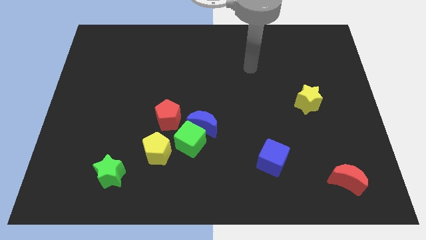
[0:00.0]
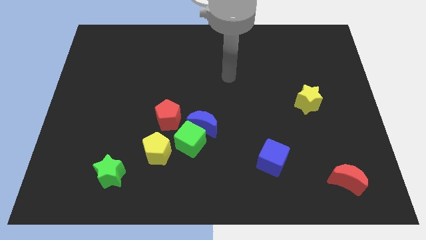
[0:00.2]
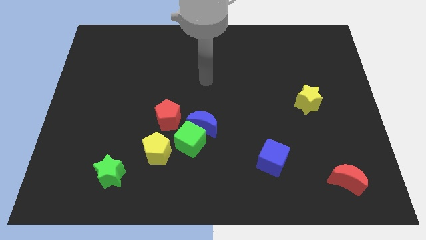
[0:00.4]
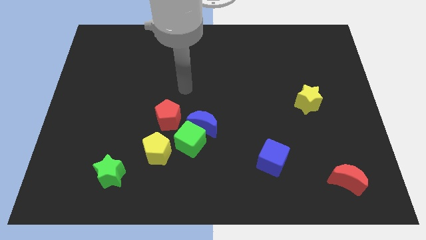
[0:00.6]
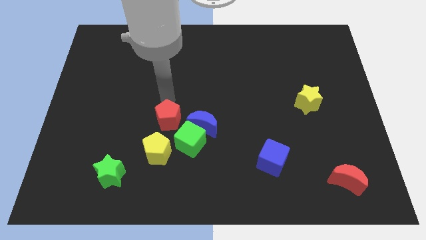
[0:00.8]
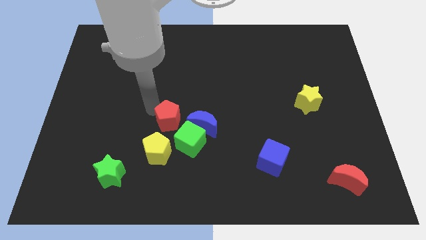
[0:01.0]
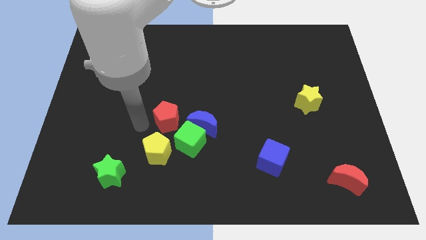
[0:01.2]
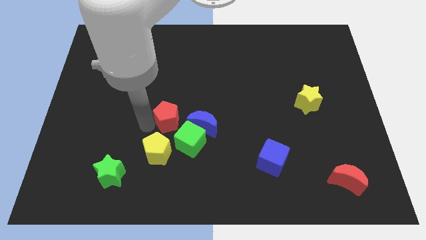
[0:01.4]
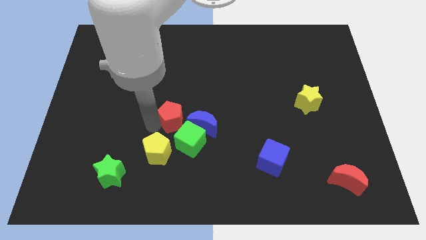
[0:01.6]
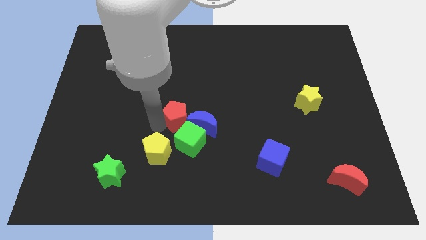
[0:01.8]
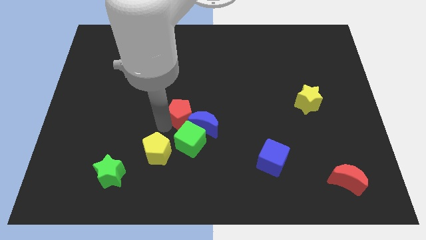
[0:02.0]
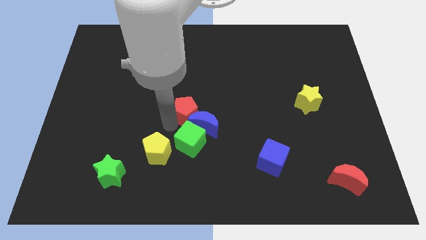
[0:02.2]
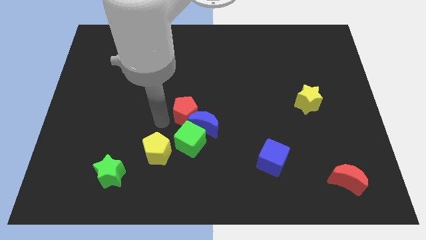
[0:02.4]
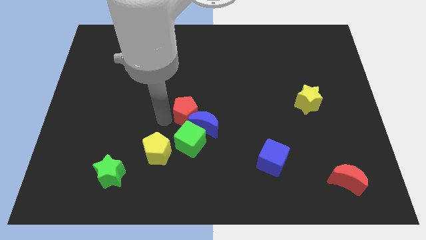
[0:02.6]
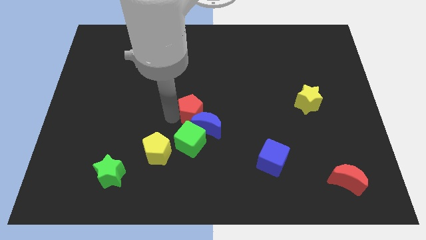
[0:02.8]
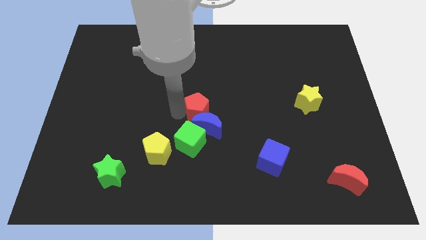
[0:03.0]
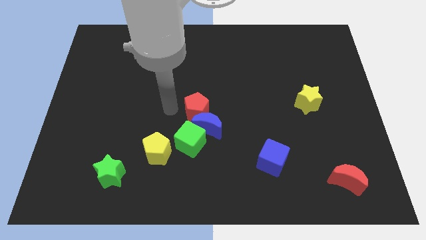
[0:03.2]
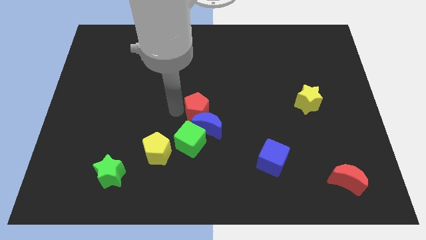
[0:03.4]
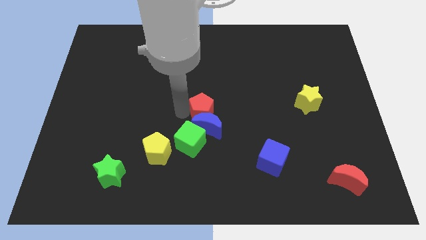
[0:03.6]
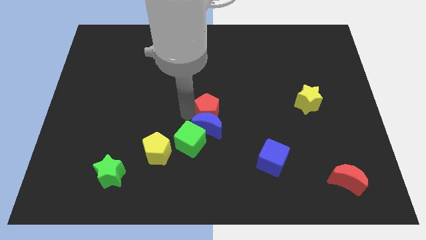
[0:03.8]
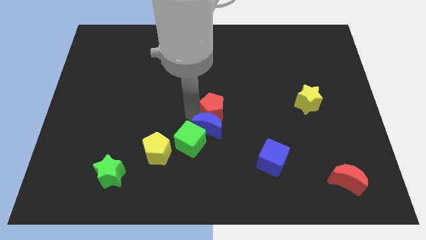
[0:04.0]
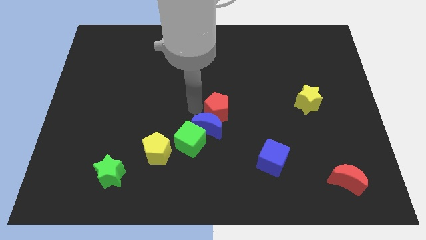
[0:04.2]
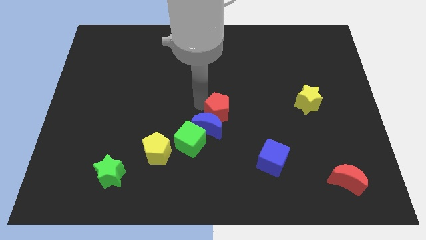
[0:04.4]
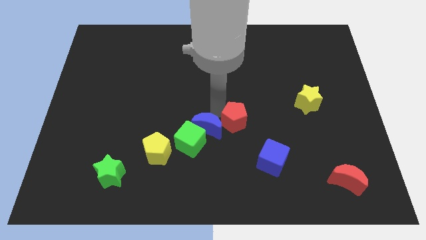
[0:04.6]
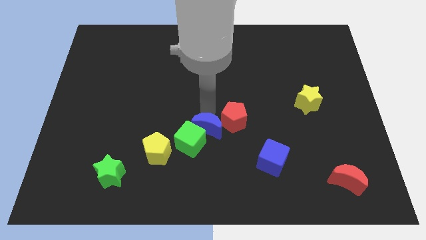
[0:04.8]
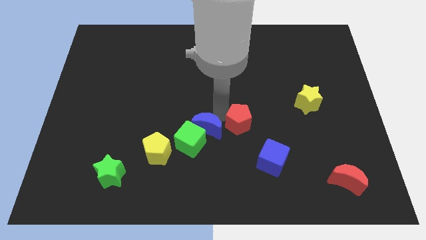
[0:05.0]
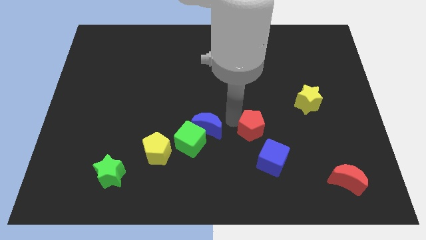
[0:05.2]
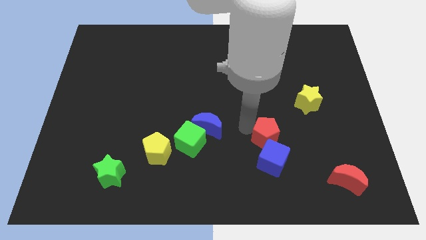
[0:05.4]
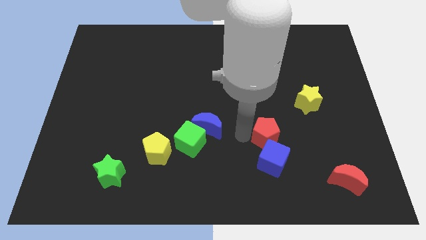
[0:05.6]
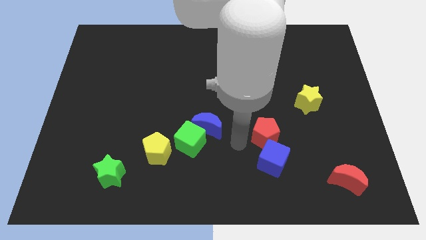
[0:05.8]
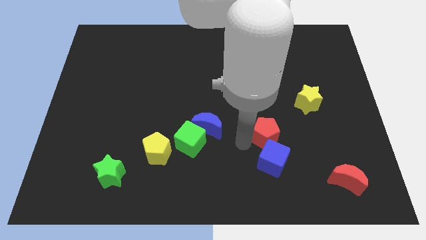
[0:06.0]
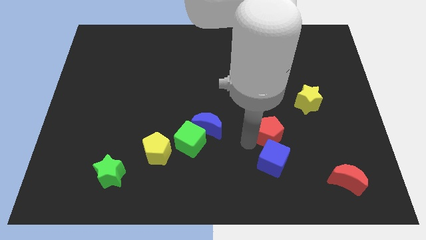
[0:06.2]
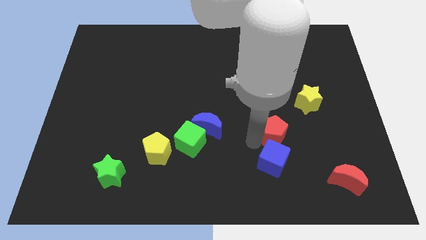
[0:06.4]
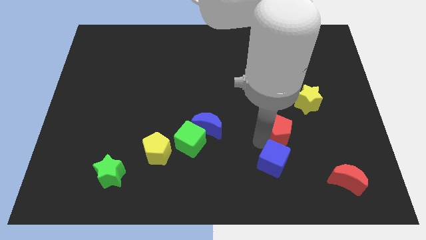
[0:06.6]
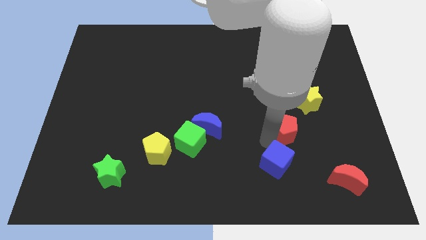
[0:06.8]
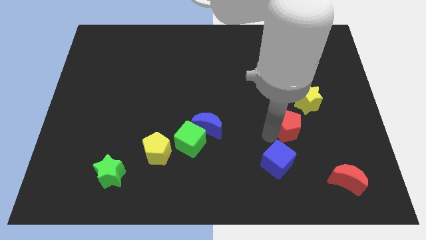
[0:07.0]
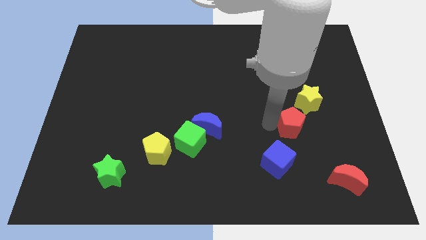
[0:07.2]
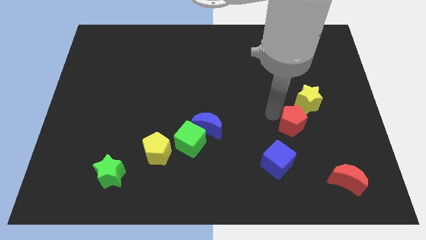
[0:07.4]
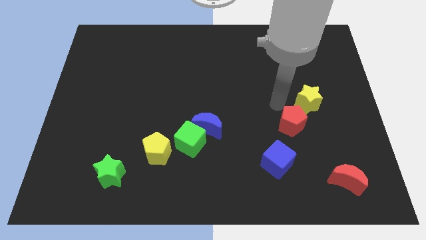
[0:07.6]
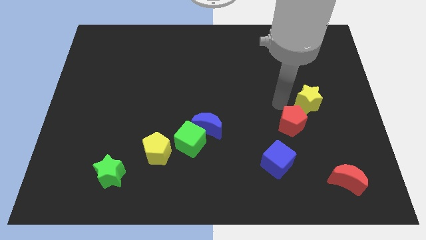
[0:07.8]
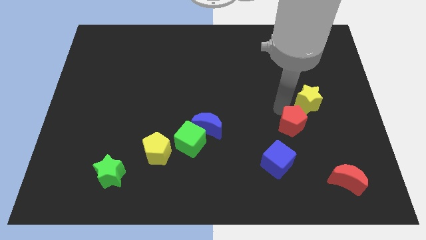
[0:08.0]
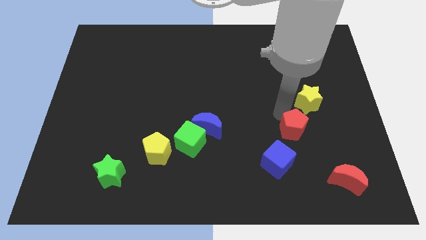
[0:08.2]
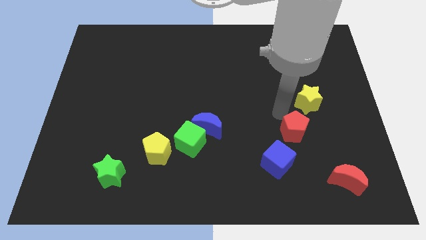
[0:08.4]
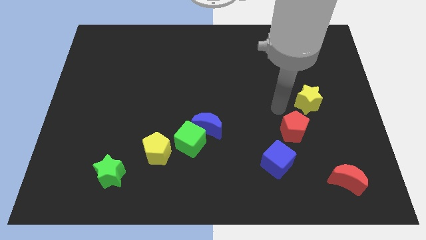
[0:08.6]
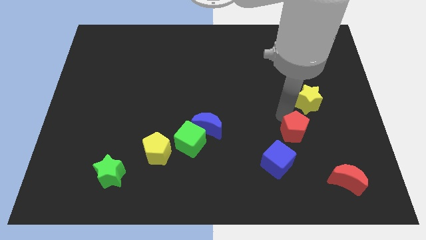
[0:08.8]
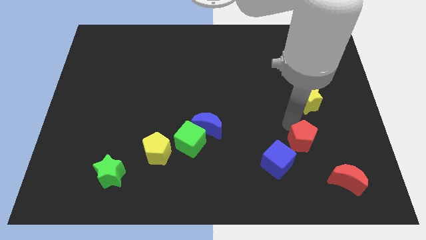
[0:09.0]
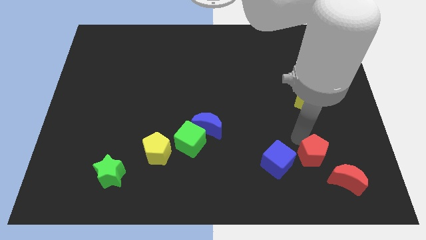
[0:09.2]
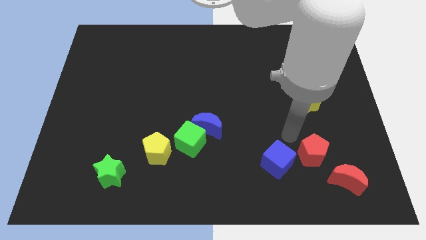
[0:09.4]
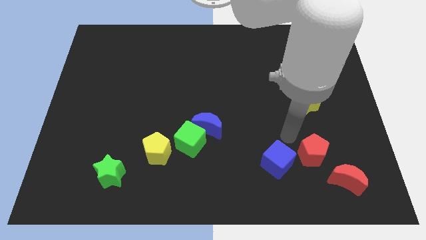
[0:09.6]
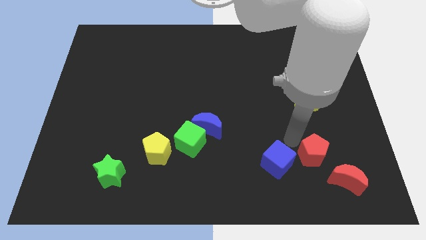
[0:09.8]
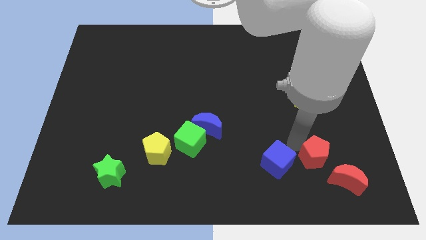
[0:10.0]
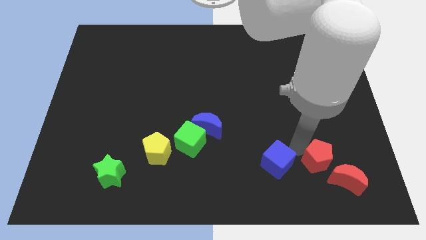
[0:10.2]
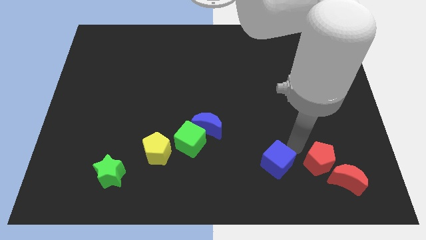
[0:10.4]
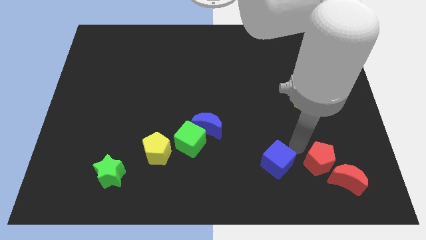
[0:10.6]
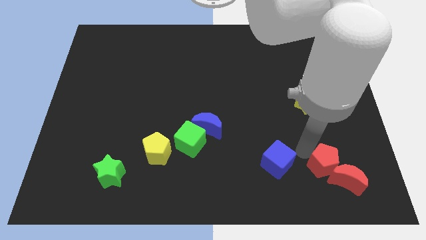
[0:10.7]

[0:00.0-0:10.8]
slide the red pentagon next to the red moon

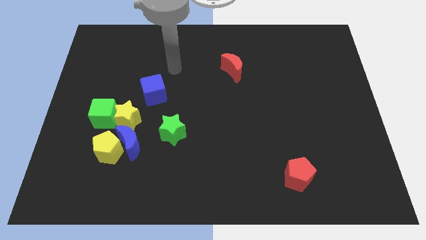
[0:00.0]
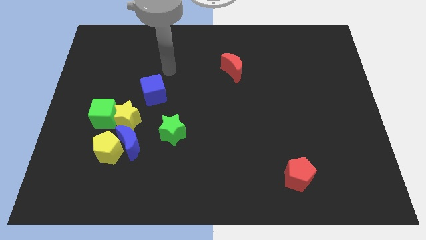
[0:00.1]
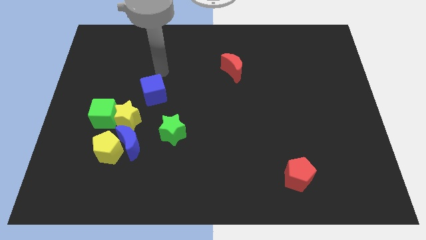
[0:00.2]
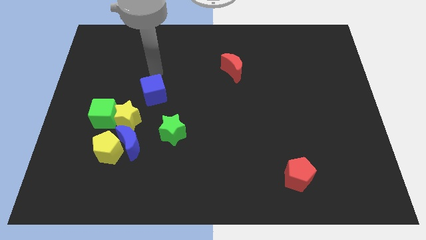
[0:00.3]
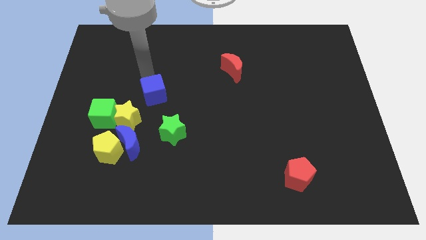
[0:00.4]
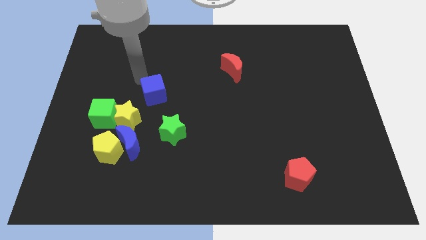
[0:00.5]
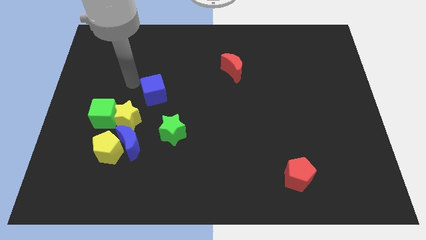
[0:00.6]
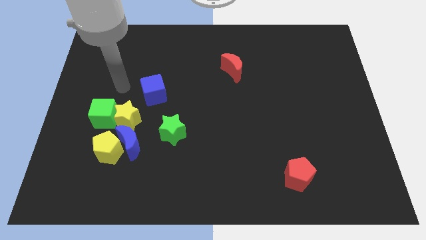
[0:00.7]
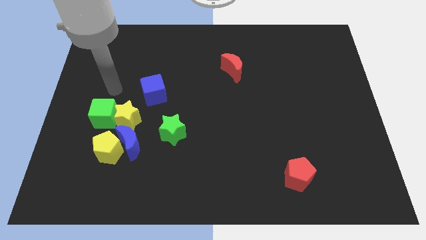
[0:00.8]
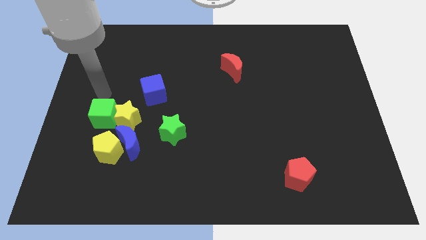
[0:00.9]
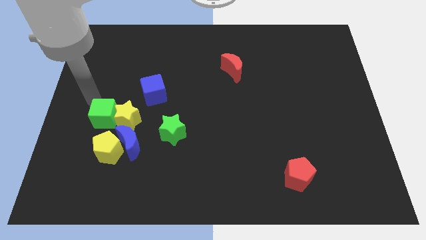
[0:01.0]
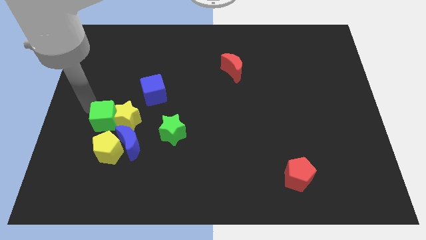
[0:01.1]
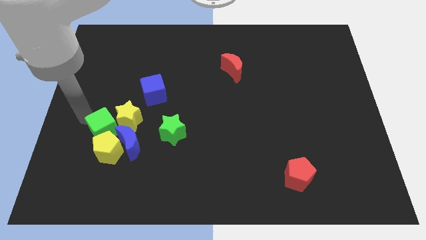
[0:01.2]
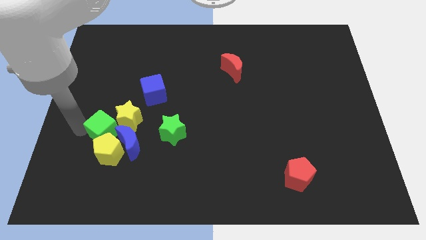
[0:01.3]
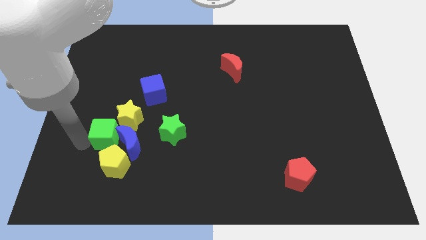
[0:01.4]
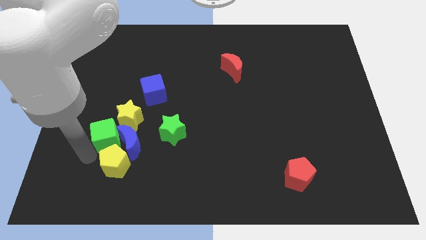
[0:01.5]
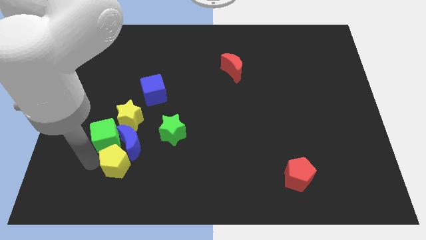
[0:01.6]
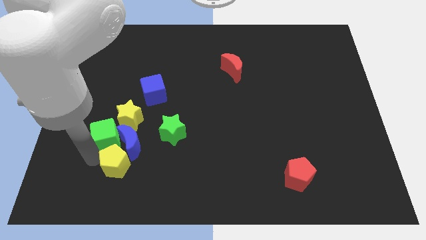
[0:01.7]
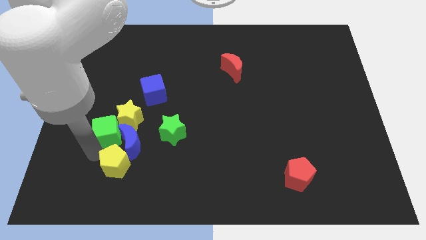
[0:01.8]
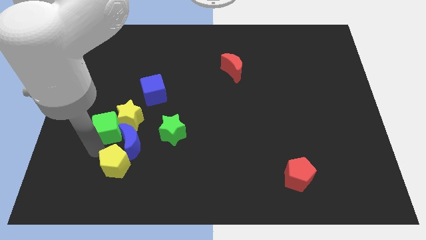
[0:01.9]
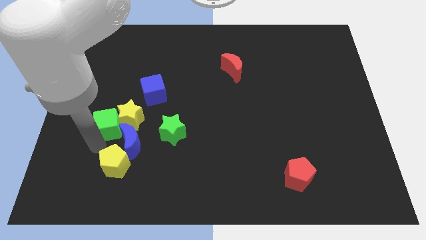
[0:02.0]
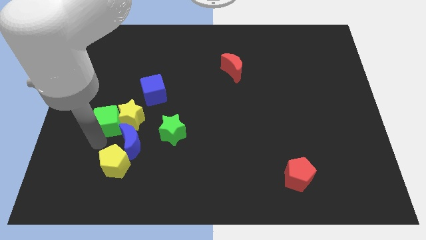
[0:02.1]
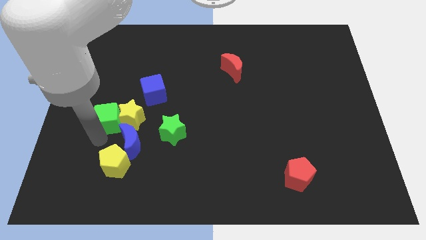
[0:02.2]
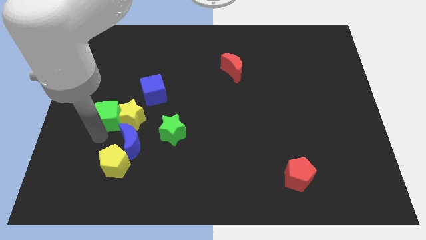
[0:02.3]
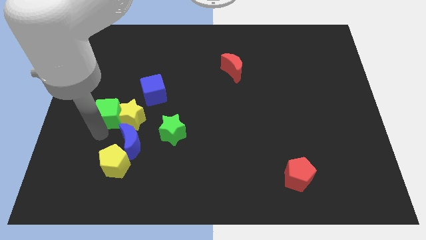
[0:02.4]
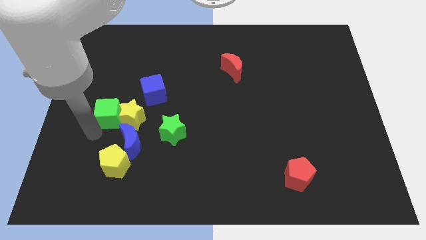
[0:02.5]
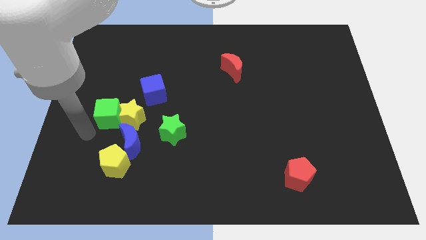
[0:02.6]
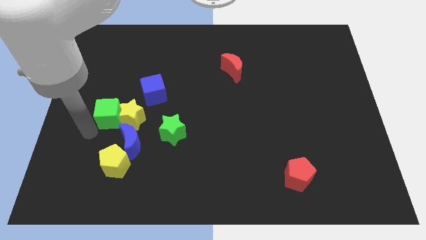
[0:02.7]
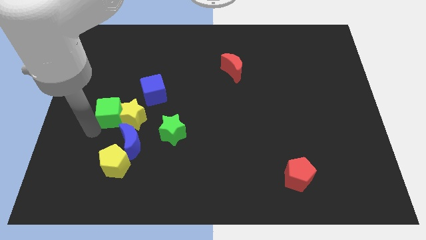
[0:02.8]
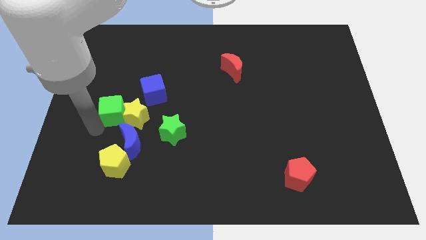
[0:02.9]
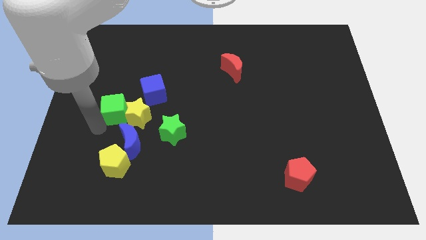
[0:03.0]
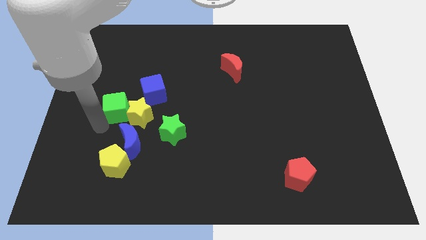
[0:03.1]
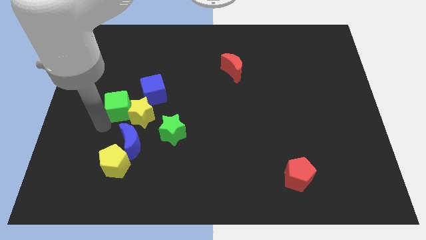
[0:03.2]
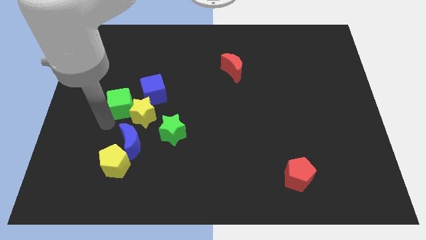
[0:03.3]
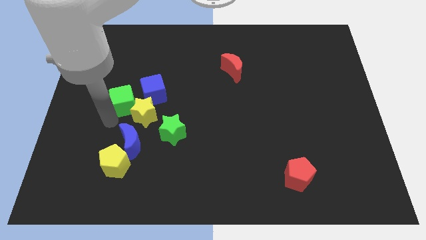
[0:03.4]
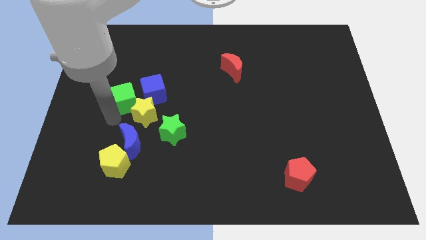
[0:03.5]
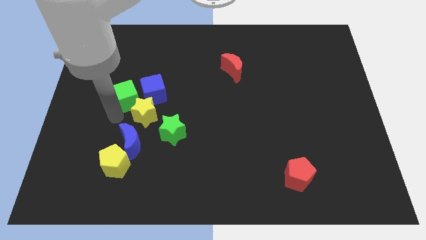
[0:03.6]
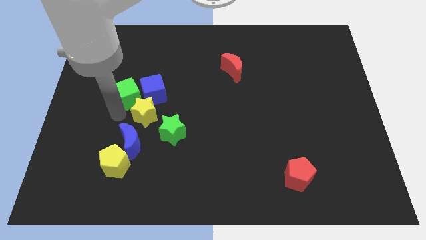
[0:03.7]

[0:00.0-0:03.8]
push the green cube next to the blue cube
